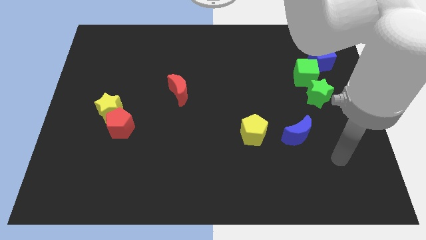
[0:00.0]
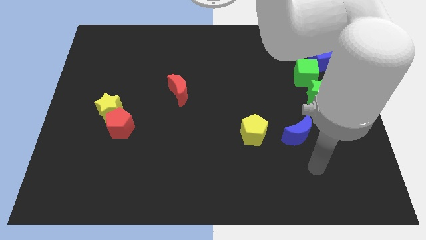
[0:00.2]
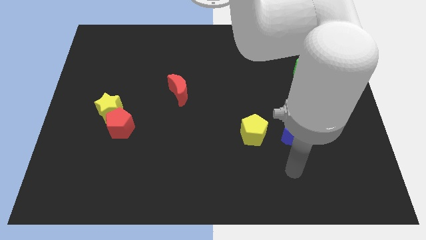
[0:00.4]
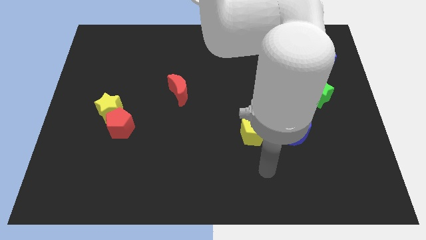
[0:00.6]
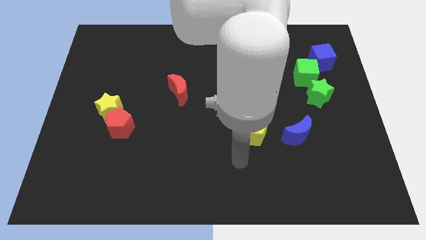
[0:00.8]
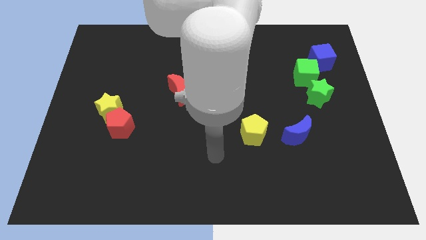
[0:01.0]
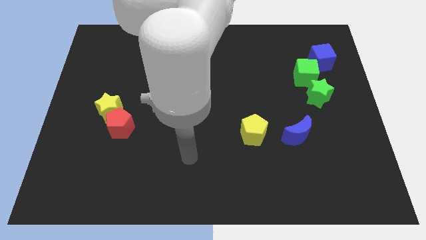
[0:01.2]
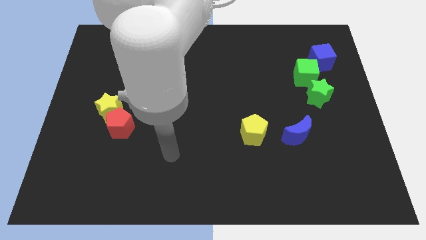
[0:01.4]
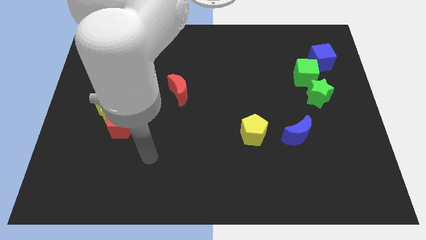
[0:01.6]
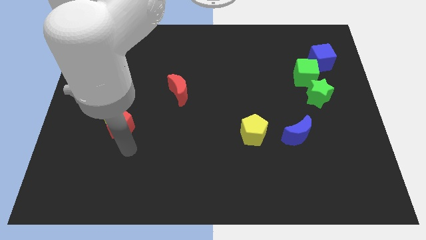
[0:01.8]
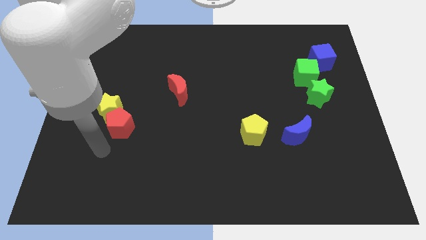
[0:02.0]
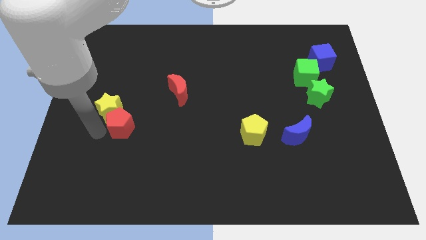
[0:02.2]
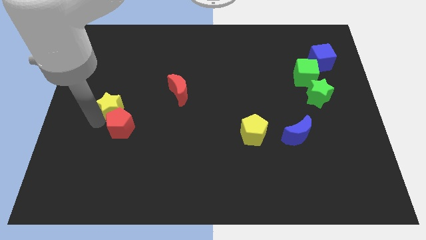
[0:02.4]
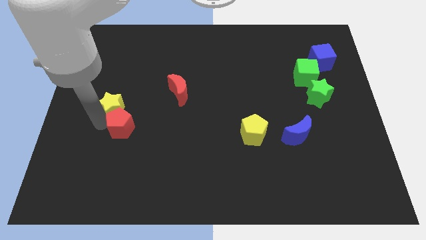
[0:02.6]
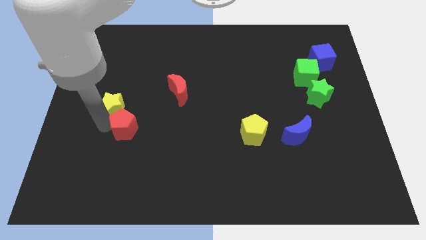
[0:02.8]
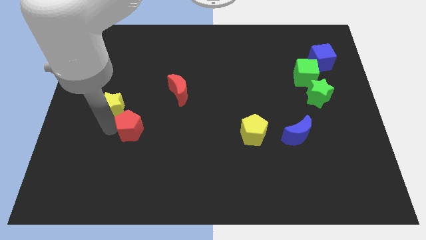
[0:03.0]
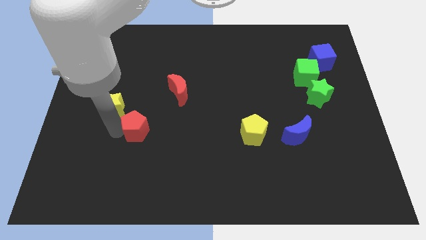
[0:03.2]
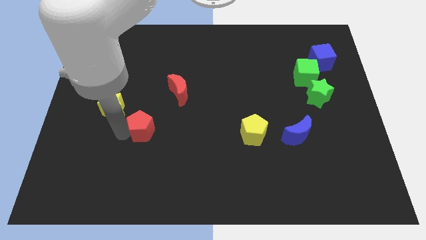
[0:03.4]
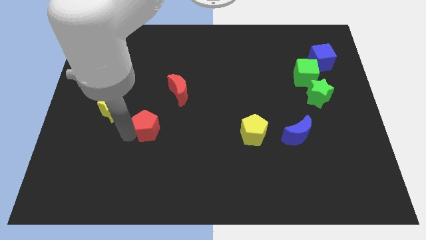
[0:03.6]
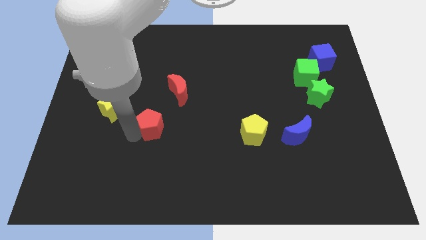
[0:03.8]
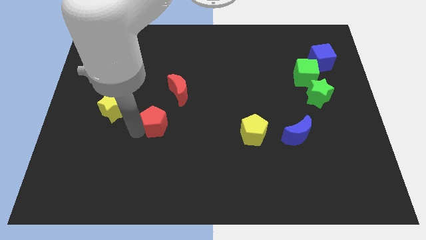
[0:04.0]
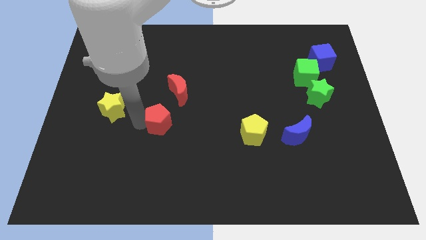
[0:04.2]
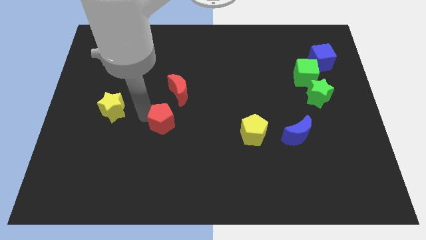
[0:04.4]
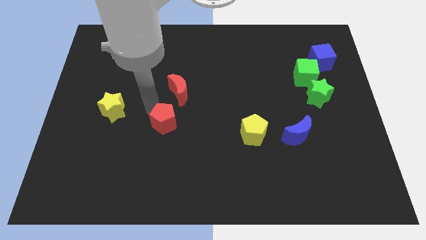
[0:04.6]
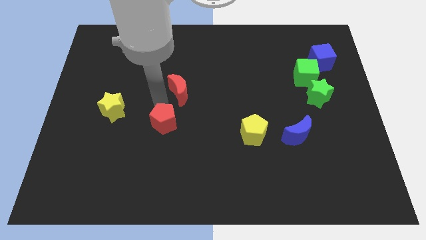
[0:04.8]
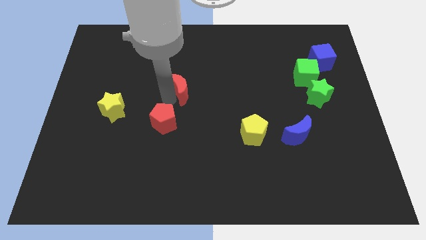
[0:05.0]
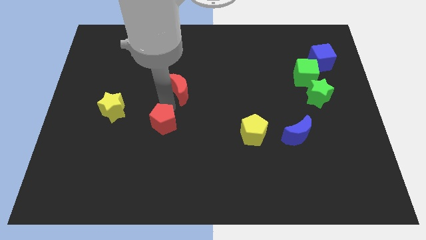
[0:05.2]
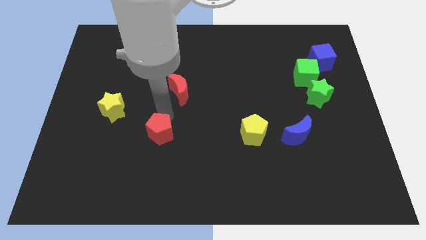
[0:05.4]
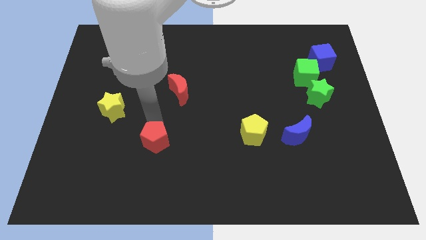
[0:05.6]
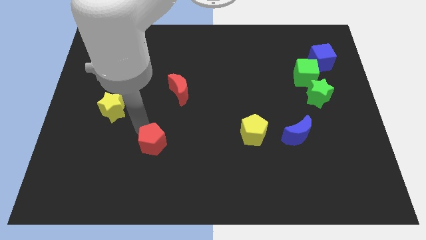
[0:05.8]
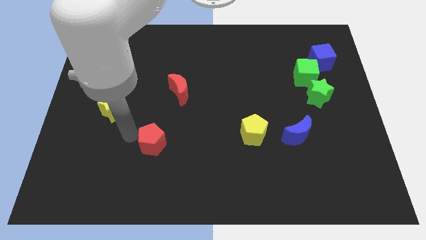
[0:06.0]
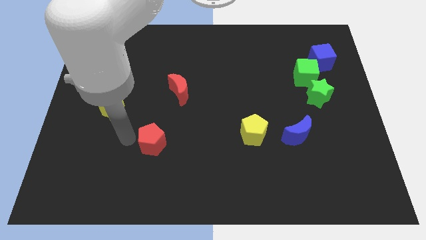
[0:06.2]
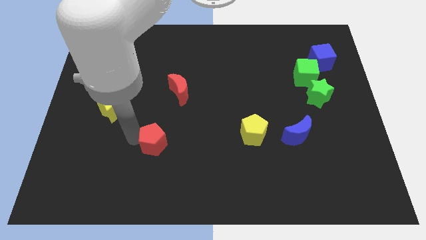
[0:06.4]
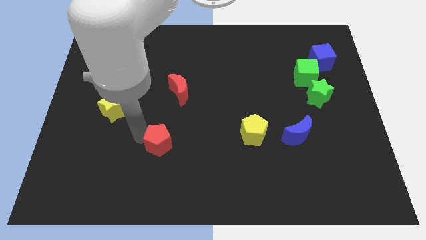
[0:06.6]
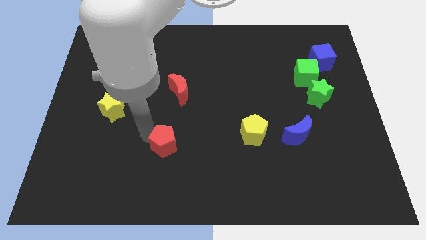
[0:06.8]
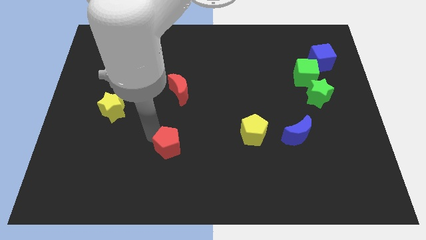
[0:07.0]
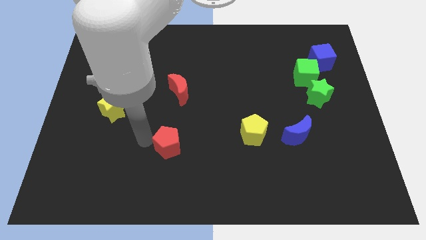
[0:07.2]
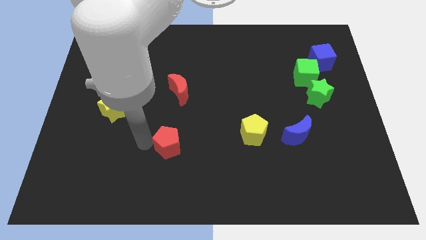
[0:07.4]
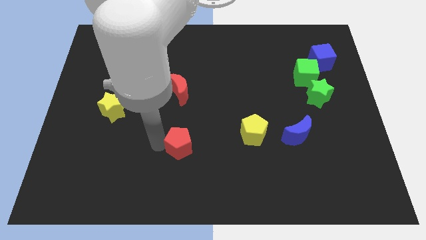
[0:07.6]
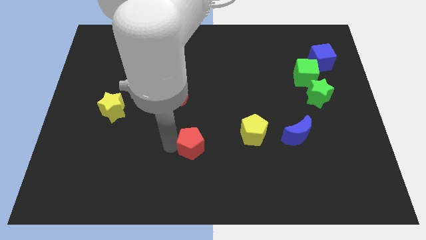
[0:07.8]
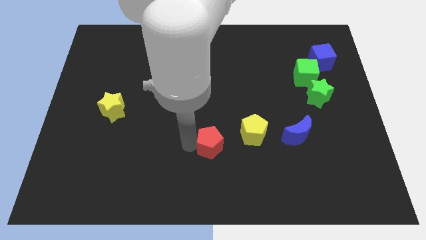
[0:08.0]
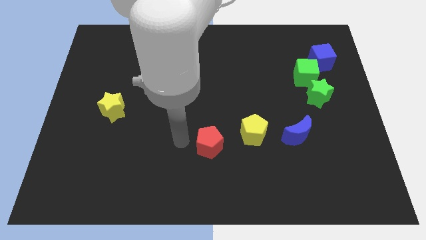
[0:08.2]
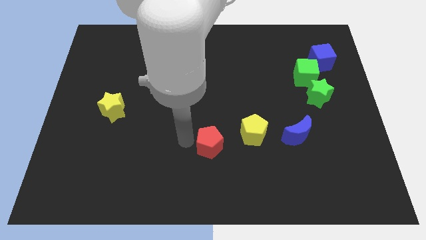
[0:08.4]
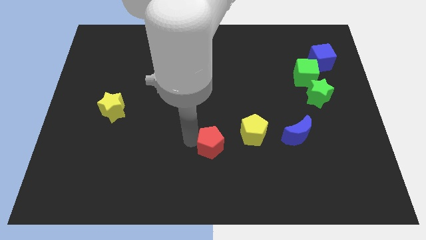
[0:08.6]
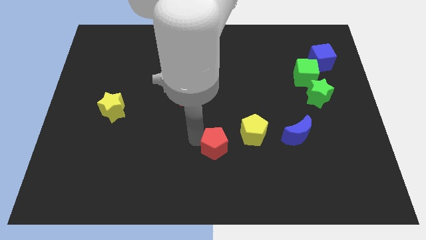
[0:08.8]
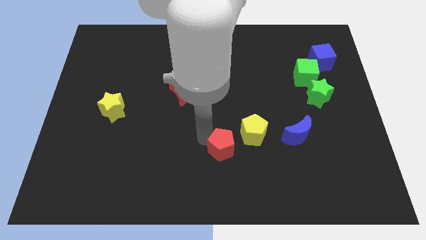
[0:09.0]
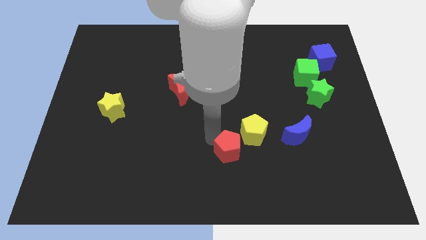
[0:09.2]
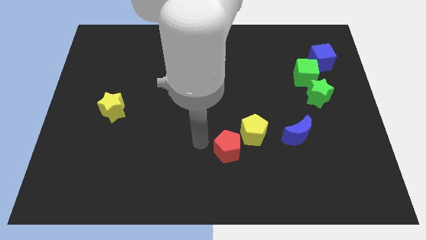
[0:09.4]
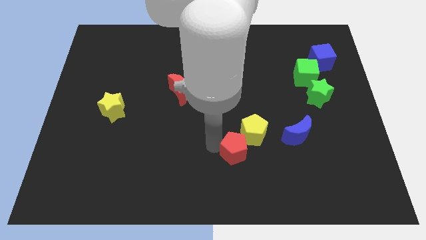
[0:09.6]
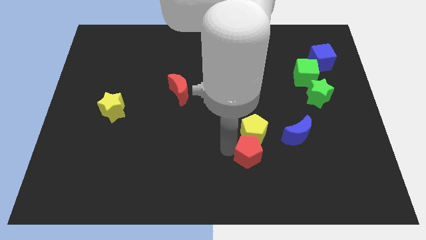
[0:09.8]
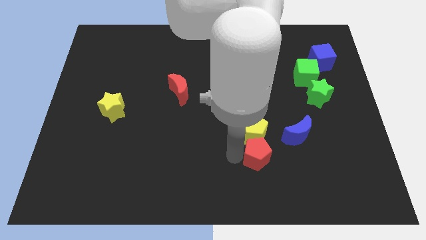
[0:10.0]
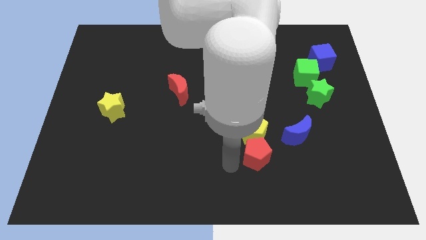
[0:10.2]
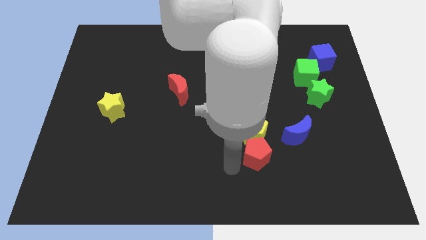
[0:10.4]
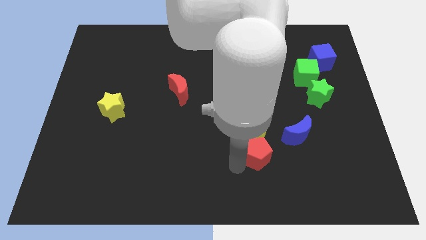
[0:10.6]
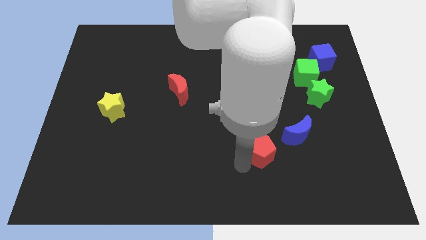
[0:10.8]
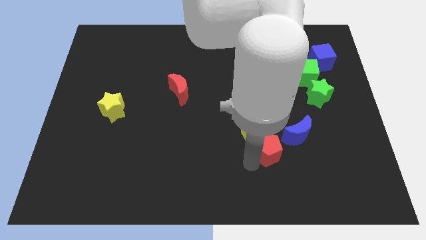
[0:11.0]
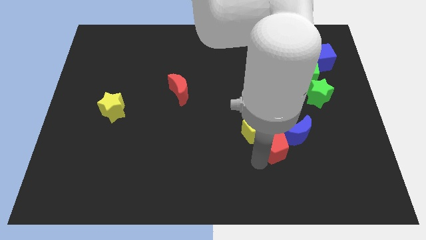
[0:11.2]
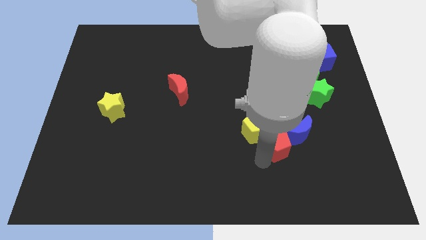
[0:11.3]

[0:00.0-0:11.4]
push the red pentagon towards the blue moon
